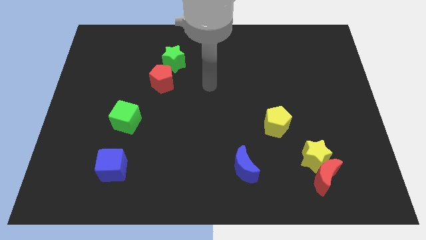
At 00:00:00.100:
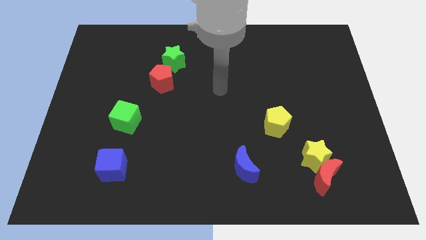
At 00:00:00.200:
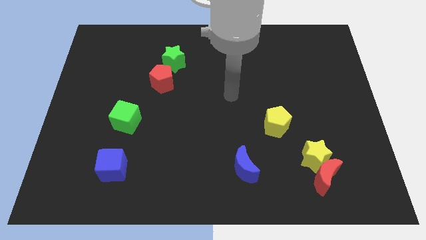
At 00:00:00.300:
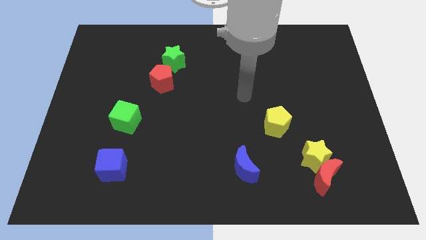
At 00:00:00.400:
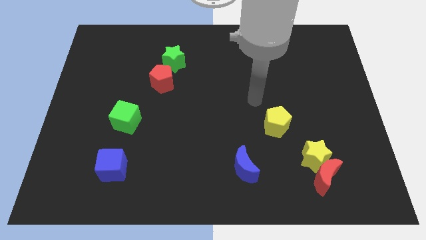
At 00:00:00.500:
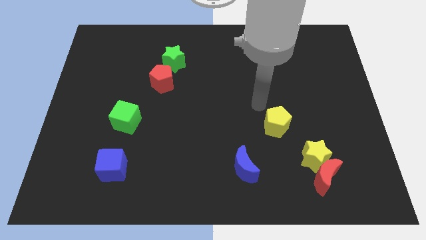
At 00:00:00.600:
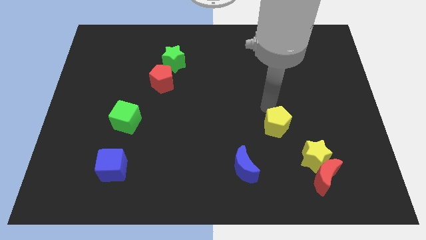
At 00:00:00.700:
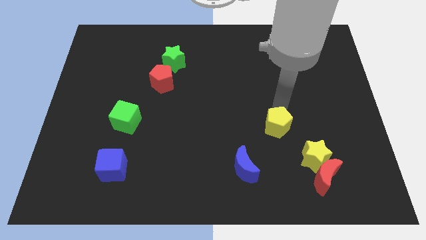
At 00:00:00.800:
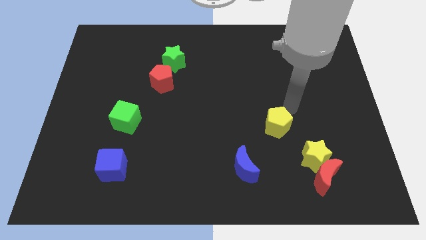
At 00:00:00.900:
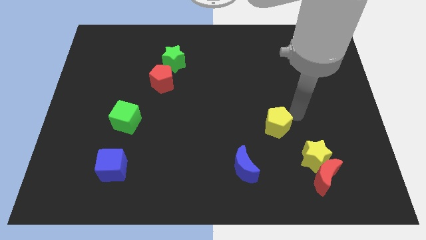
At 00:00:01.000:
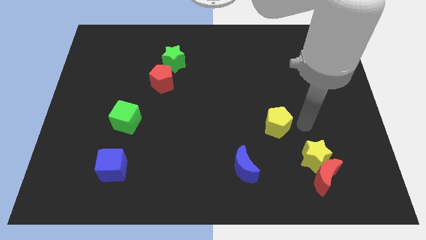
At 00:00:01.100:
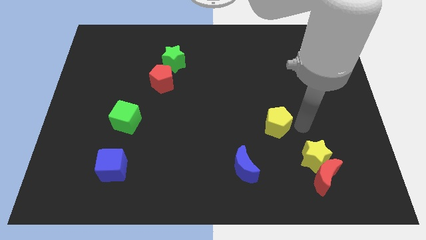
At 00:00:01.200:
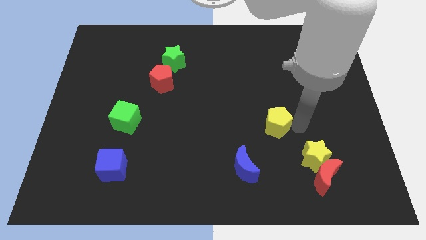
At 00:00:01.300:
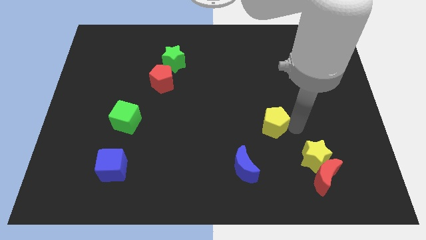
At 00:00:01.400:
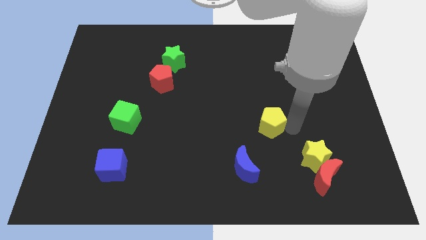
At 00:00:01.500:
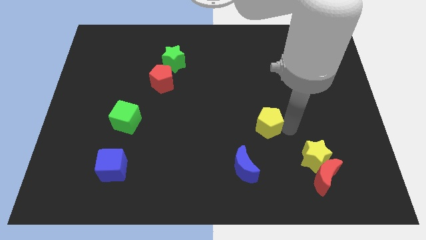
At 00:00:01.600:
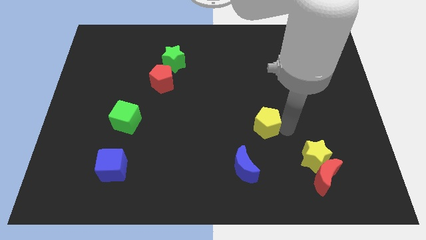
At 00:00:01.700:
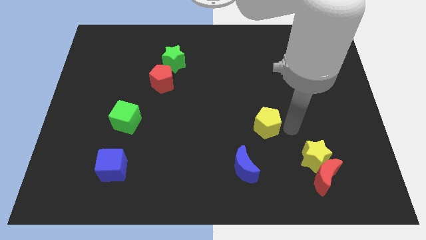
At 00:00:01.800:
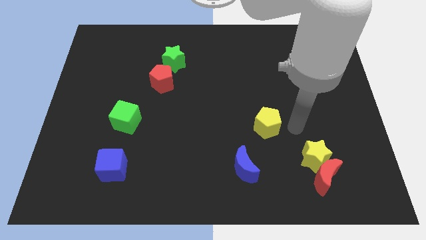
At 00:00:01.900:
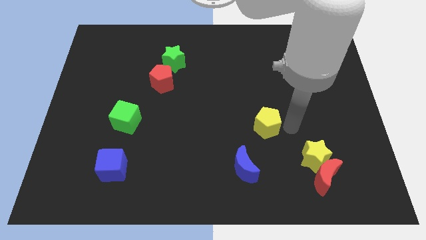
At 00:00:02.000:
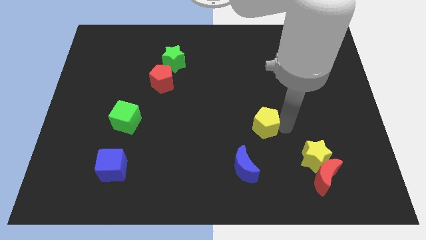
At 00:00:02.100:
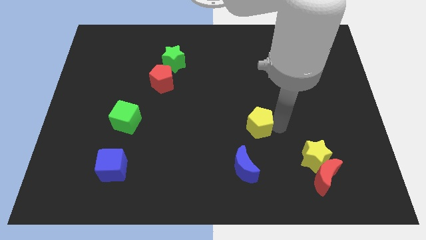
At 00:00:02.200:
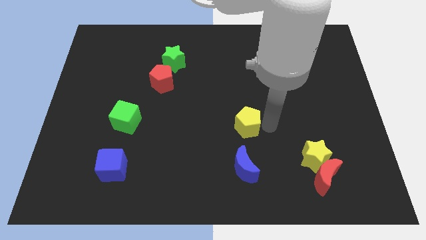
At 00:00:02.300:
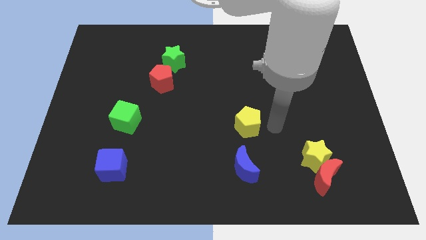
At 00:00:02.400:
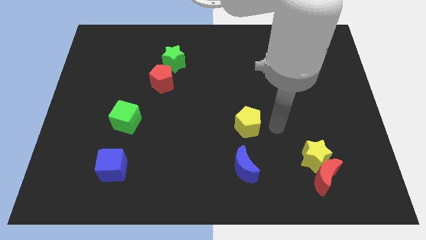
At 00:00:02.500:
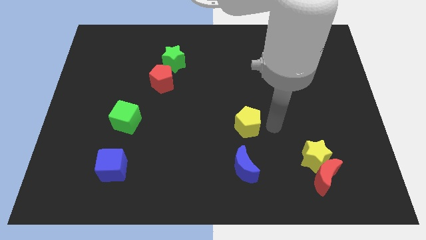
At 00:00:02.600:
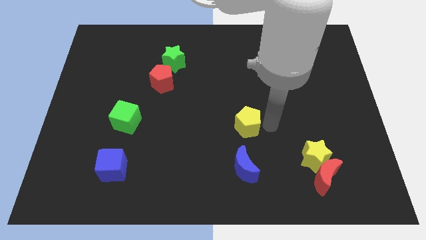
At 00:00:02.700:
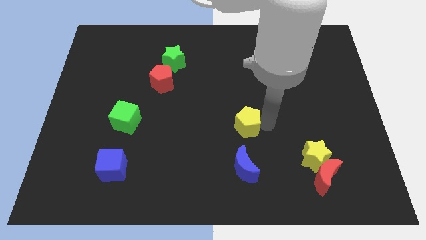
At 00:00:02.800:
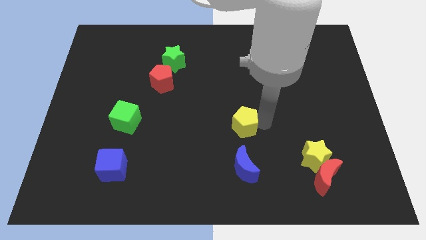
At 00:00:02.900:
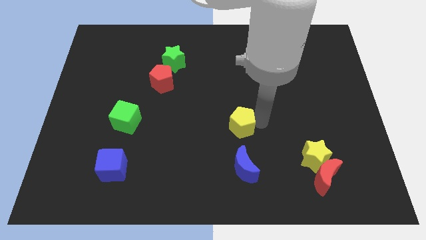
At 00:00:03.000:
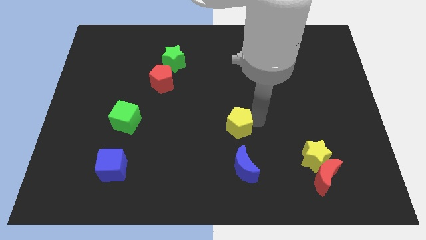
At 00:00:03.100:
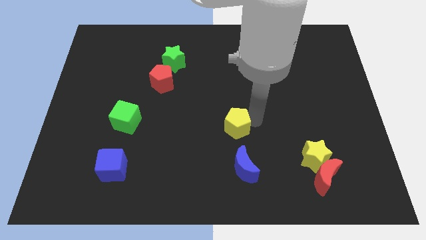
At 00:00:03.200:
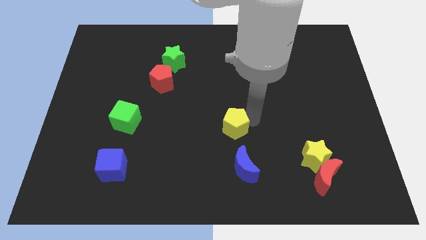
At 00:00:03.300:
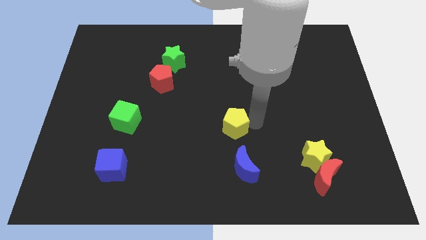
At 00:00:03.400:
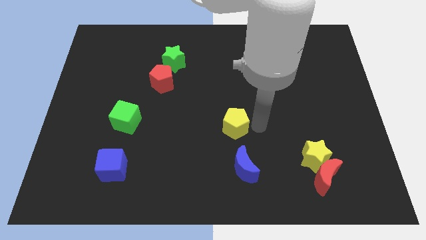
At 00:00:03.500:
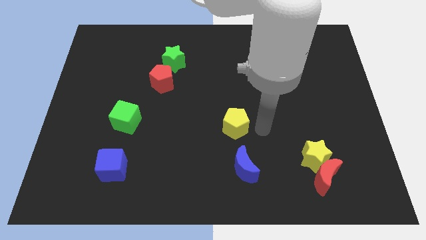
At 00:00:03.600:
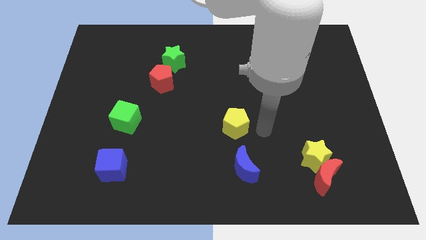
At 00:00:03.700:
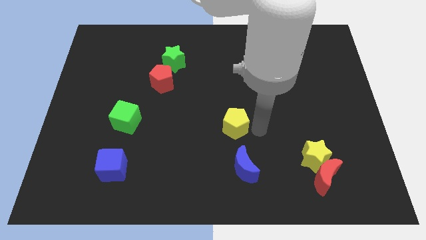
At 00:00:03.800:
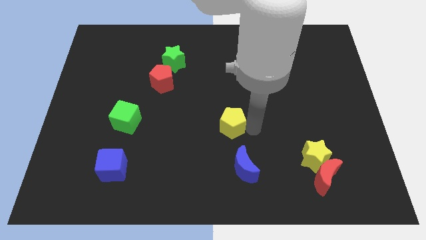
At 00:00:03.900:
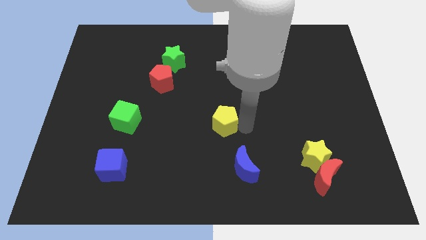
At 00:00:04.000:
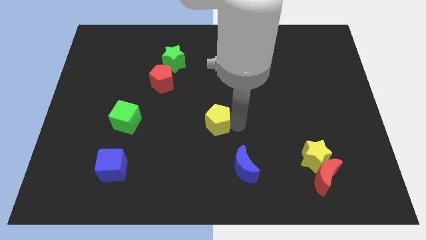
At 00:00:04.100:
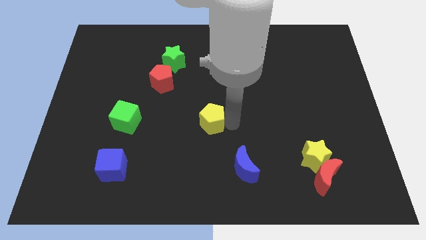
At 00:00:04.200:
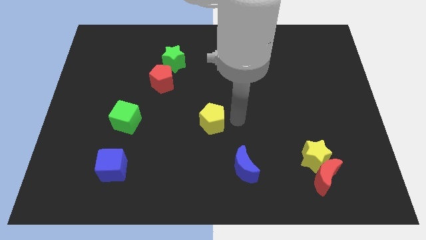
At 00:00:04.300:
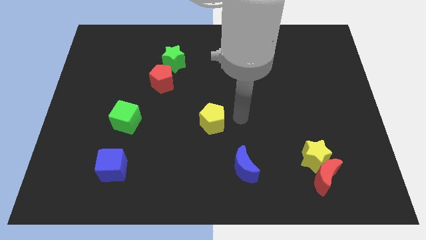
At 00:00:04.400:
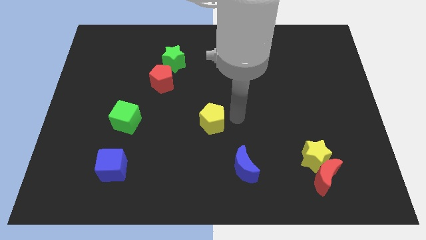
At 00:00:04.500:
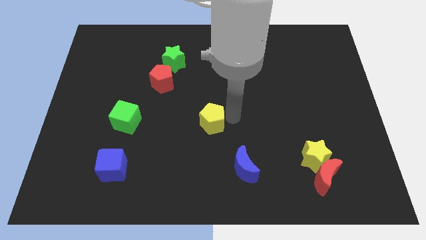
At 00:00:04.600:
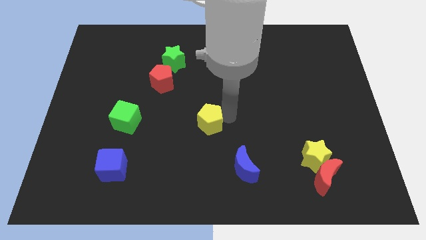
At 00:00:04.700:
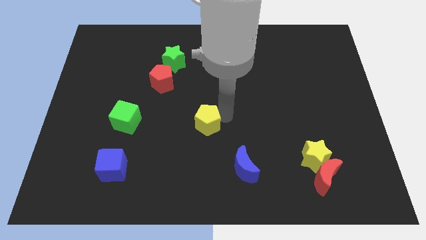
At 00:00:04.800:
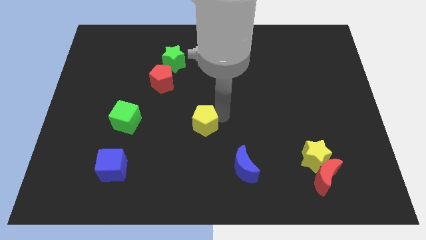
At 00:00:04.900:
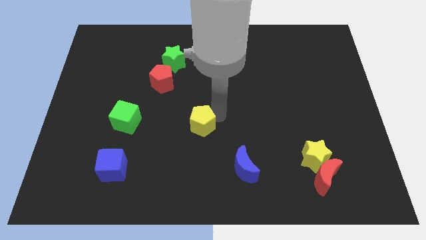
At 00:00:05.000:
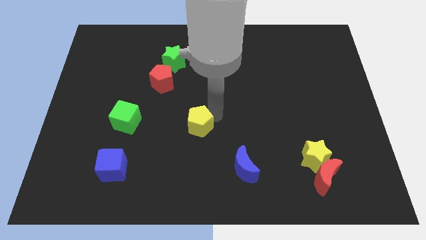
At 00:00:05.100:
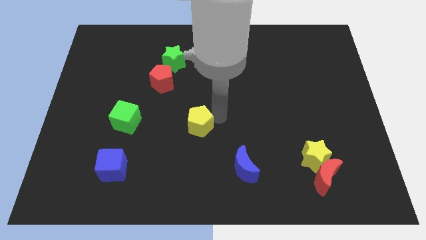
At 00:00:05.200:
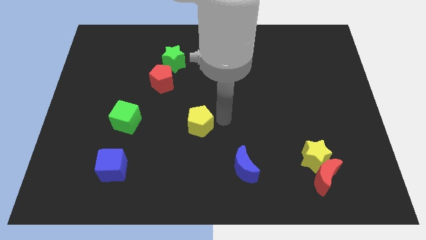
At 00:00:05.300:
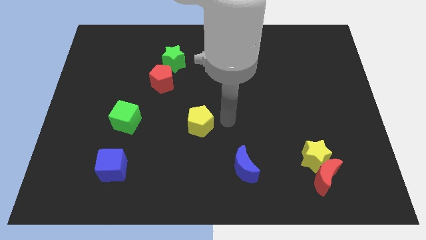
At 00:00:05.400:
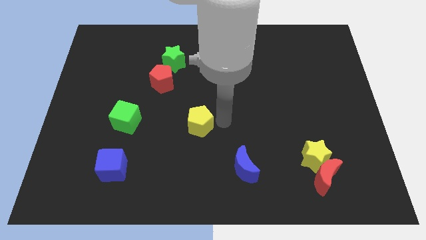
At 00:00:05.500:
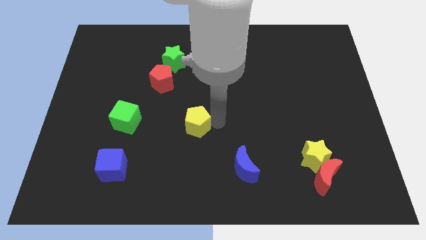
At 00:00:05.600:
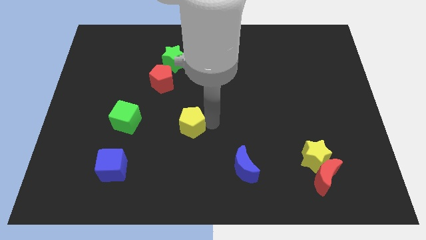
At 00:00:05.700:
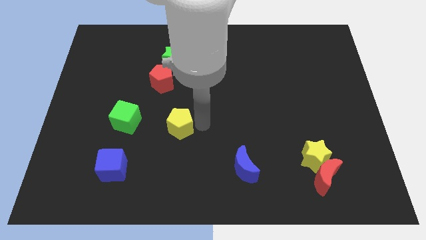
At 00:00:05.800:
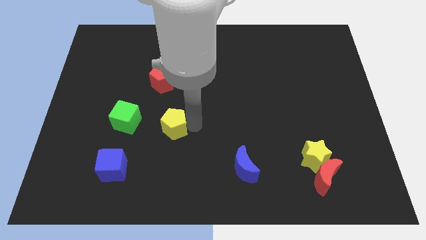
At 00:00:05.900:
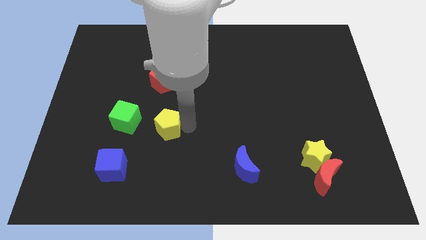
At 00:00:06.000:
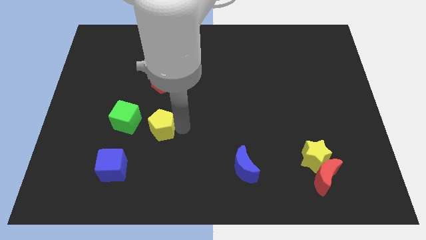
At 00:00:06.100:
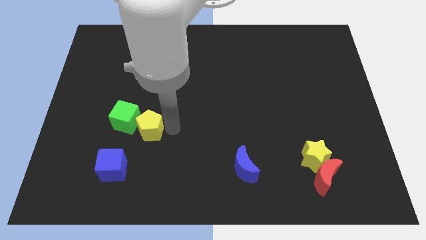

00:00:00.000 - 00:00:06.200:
put the yellow pentagon towards the green cube

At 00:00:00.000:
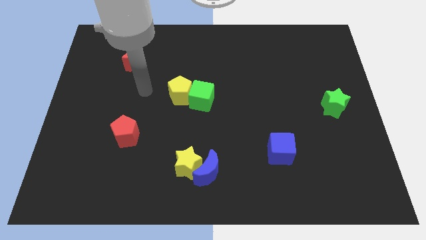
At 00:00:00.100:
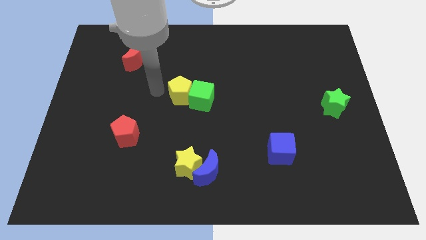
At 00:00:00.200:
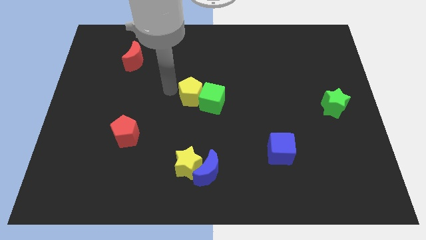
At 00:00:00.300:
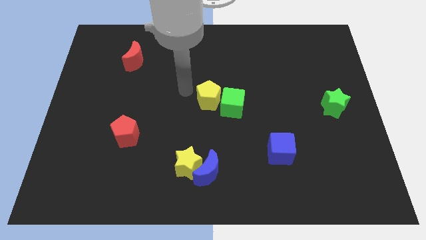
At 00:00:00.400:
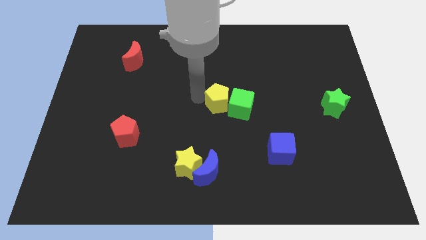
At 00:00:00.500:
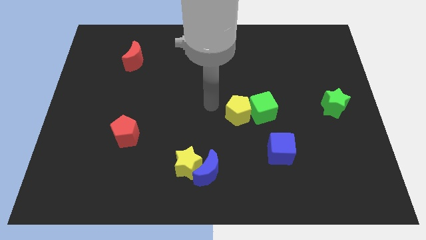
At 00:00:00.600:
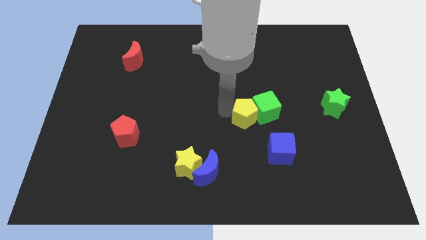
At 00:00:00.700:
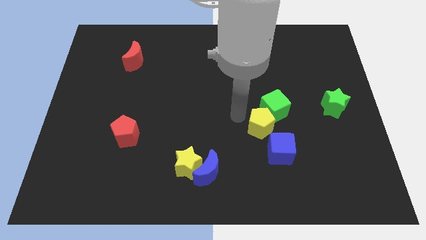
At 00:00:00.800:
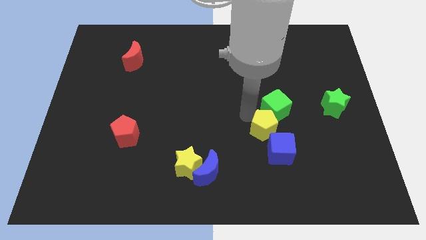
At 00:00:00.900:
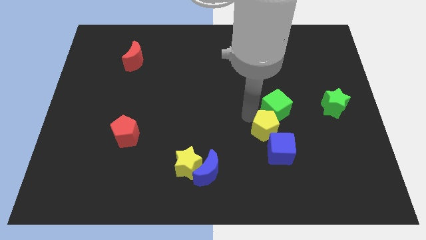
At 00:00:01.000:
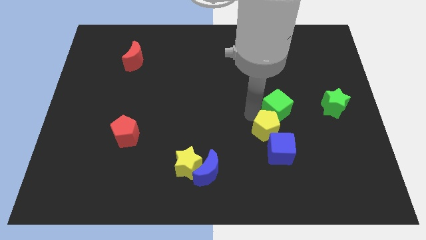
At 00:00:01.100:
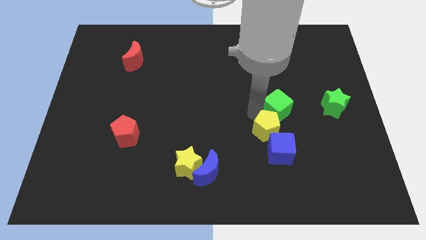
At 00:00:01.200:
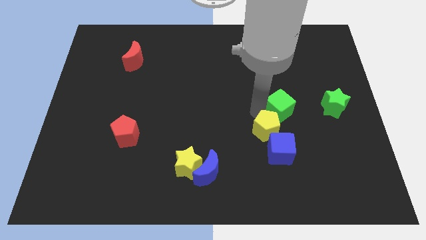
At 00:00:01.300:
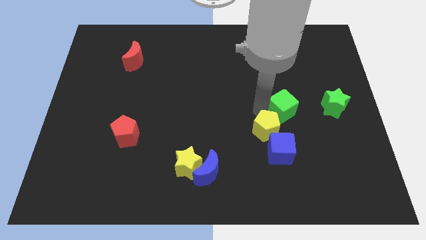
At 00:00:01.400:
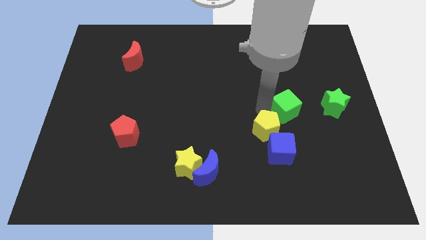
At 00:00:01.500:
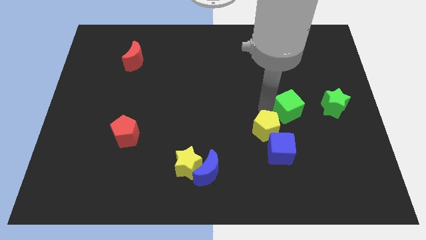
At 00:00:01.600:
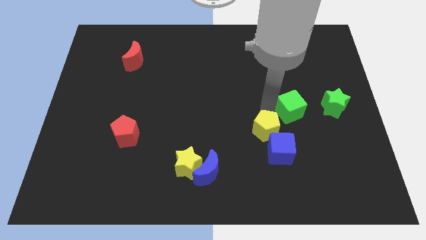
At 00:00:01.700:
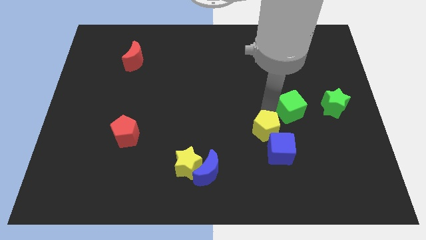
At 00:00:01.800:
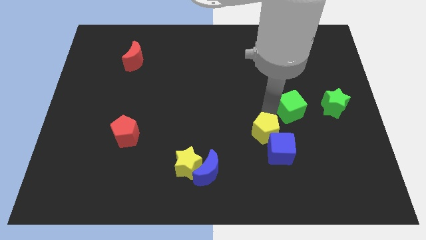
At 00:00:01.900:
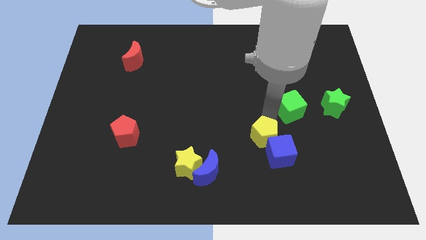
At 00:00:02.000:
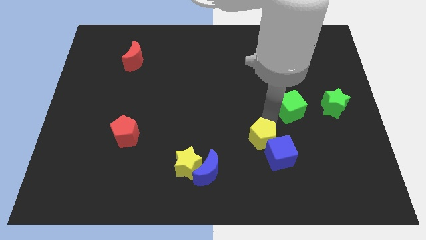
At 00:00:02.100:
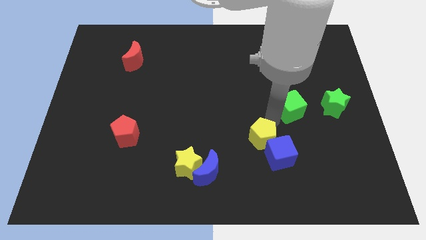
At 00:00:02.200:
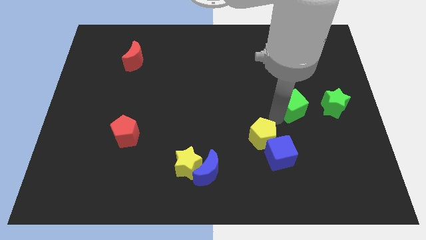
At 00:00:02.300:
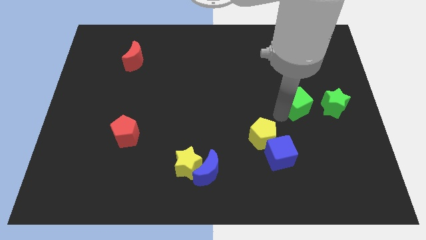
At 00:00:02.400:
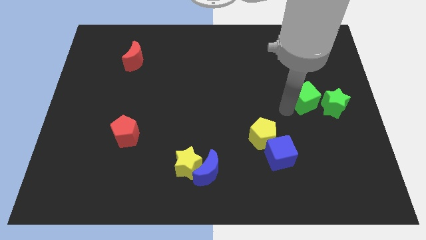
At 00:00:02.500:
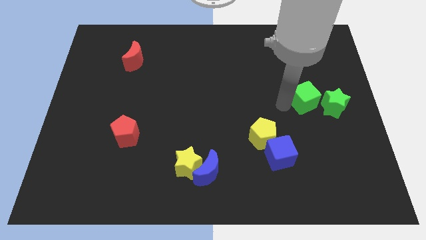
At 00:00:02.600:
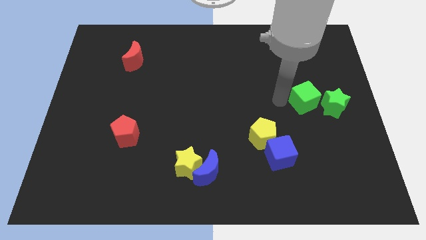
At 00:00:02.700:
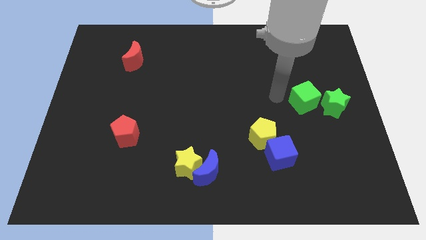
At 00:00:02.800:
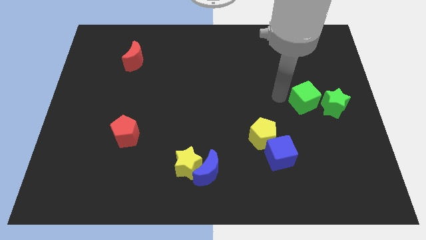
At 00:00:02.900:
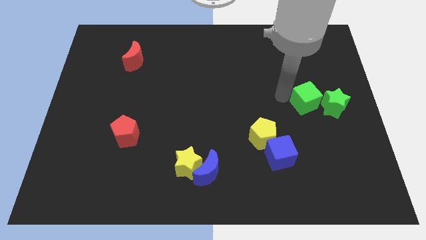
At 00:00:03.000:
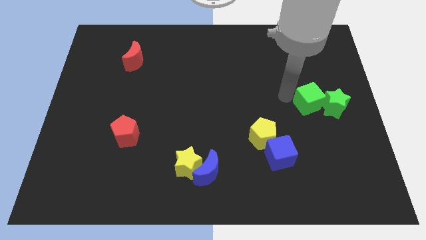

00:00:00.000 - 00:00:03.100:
move the green cube to the green star
